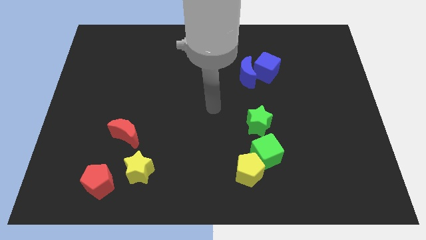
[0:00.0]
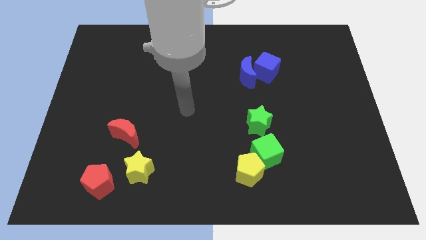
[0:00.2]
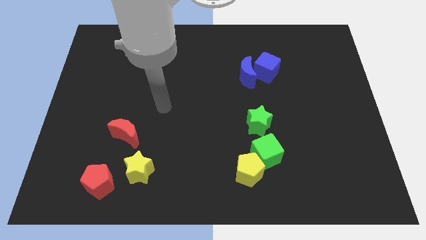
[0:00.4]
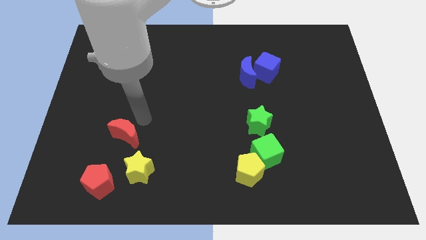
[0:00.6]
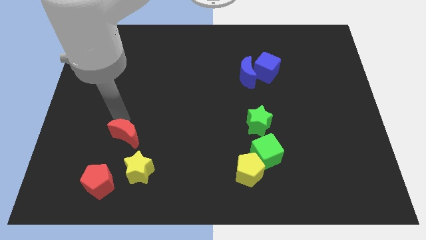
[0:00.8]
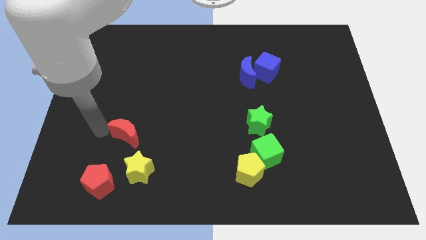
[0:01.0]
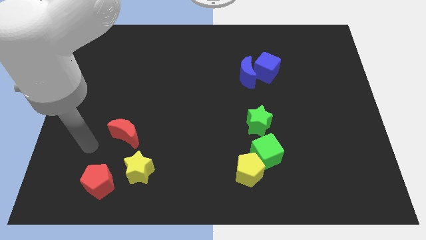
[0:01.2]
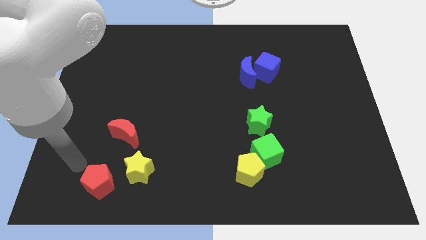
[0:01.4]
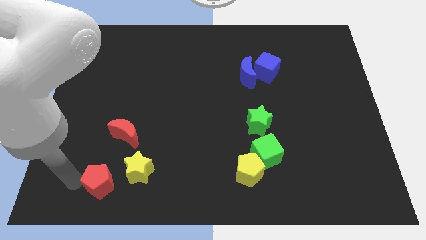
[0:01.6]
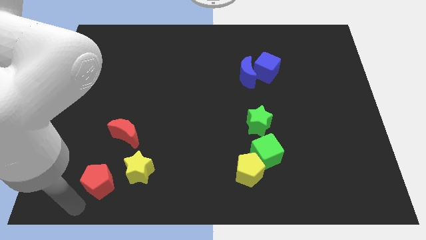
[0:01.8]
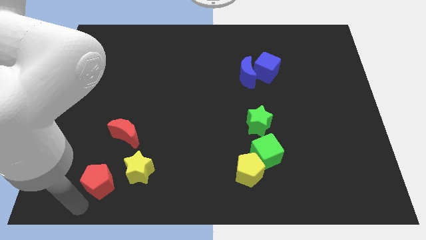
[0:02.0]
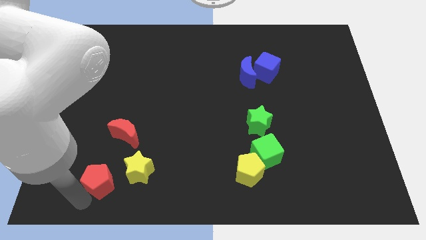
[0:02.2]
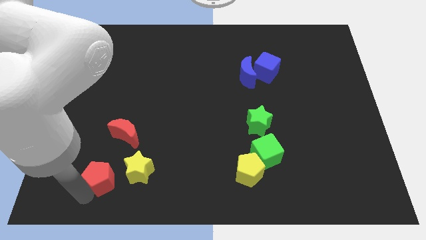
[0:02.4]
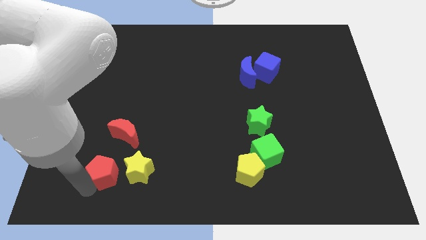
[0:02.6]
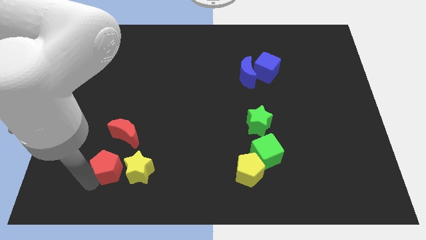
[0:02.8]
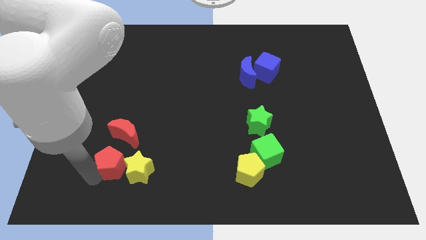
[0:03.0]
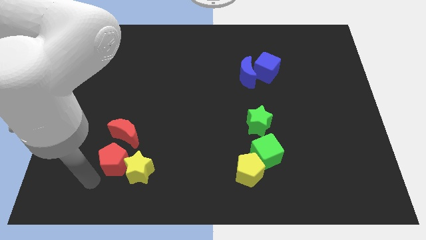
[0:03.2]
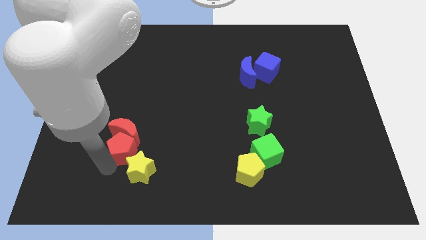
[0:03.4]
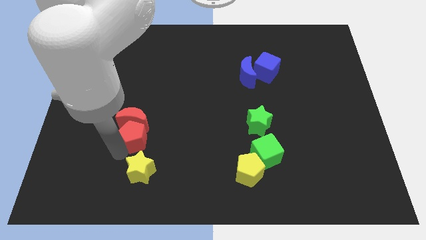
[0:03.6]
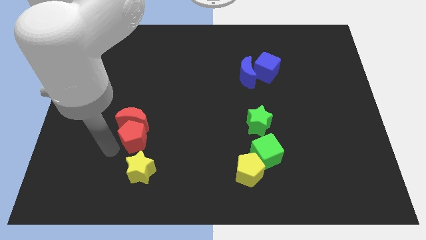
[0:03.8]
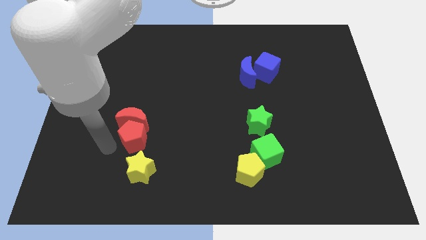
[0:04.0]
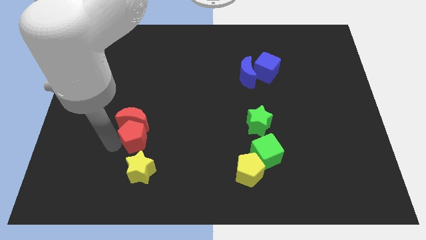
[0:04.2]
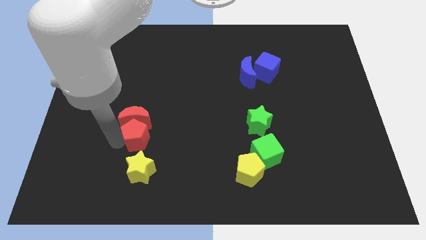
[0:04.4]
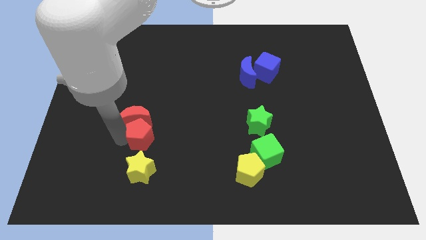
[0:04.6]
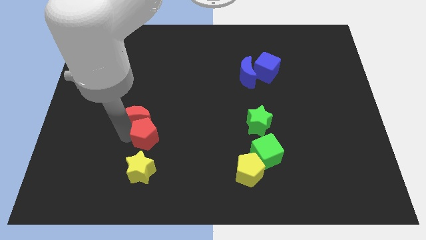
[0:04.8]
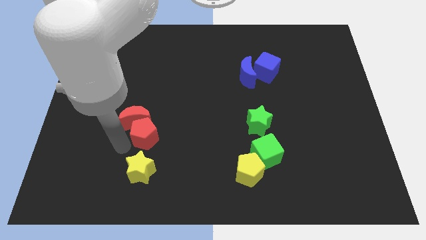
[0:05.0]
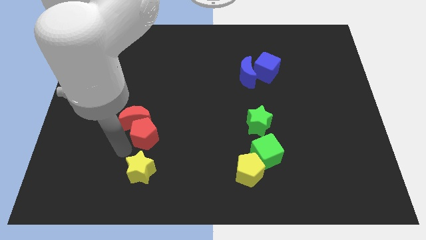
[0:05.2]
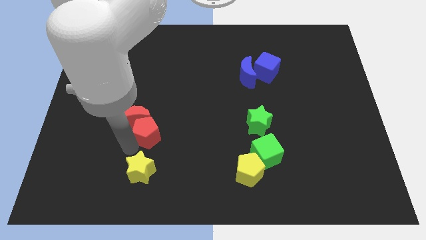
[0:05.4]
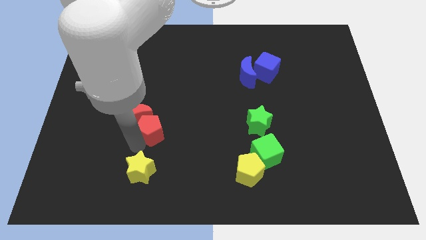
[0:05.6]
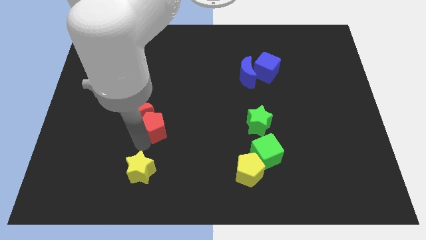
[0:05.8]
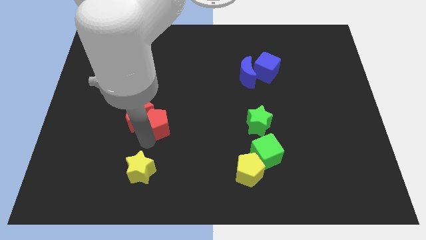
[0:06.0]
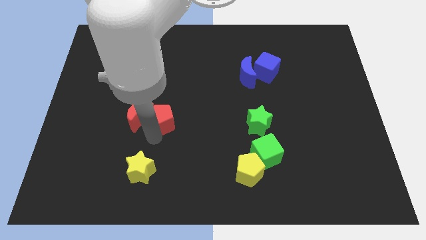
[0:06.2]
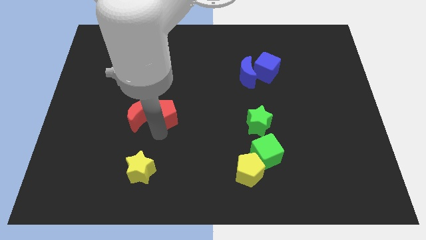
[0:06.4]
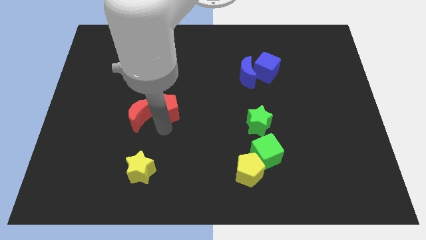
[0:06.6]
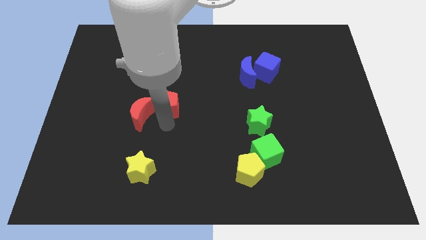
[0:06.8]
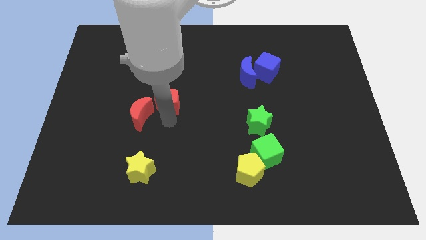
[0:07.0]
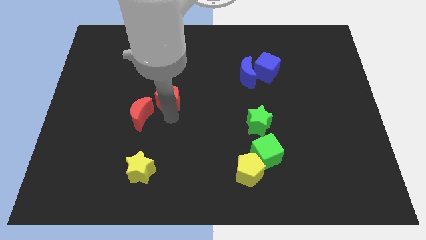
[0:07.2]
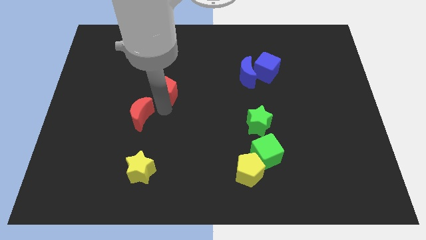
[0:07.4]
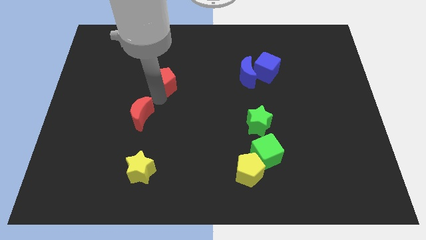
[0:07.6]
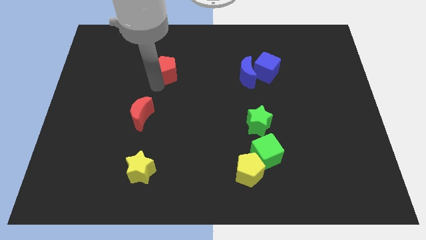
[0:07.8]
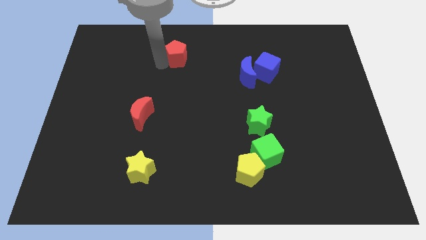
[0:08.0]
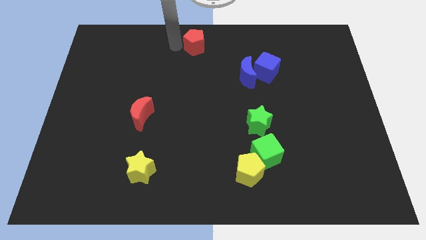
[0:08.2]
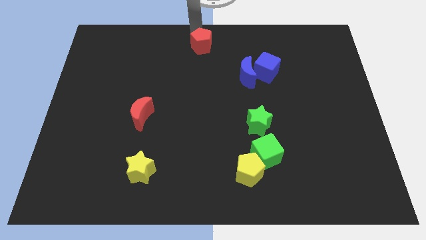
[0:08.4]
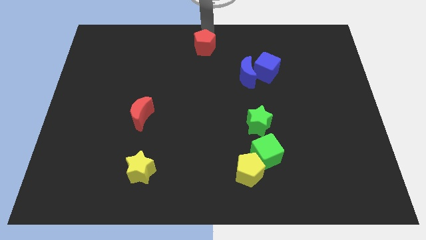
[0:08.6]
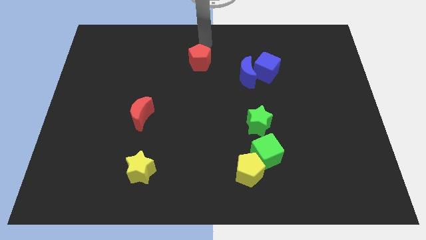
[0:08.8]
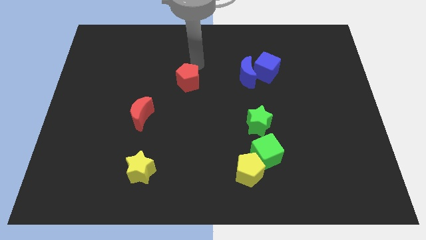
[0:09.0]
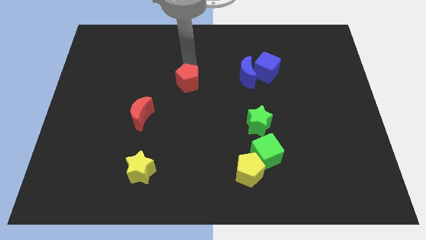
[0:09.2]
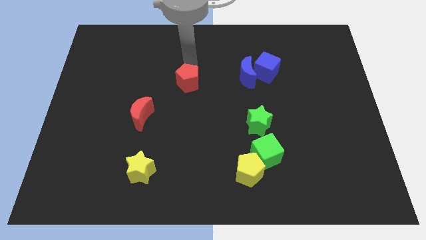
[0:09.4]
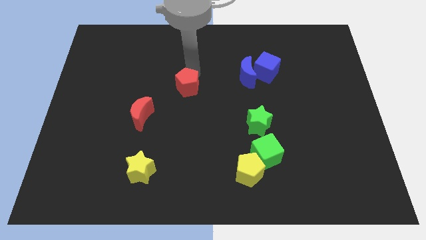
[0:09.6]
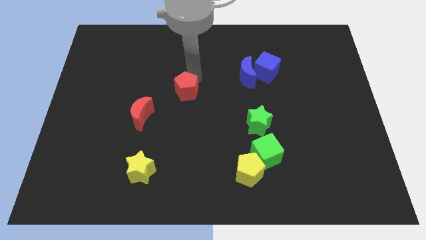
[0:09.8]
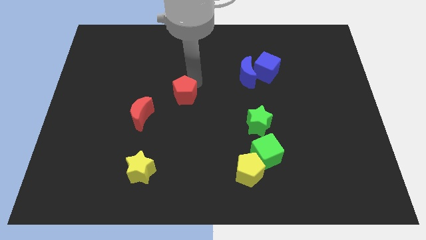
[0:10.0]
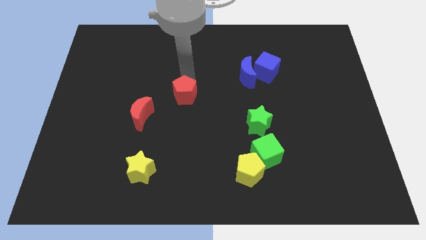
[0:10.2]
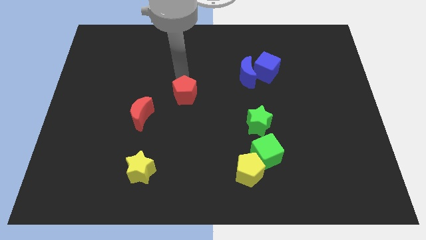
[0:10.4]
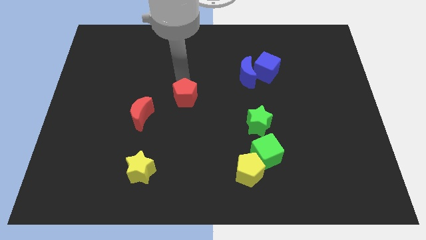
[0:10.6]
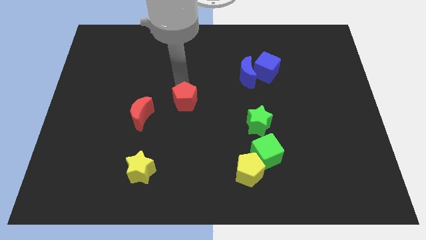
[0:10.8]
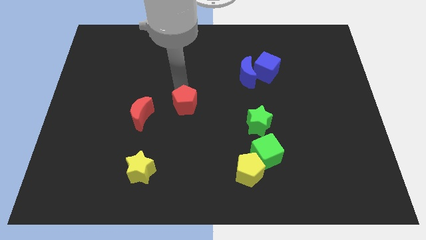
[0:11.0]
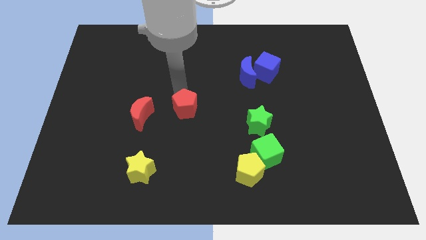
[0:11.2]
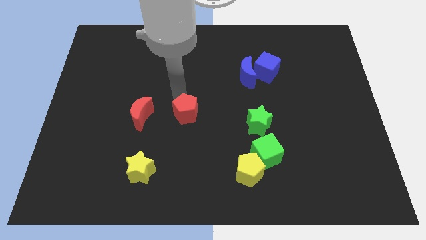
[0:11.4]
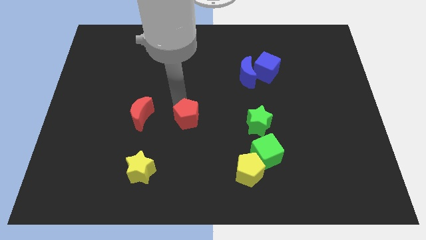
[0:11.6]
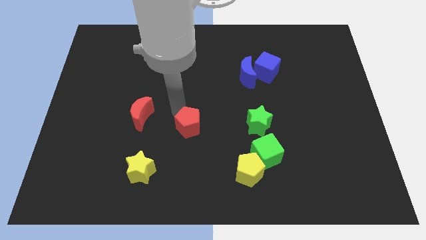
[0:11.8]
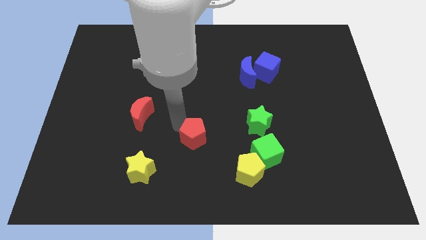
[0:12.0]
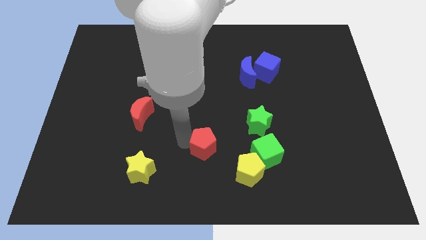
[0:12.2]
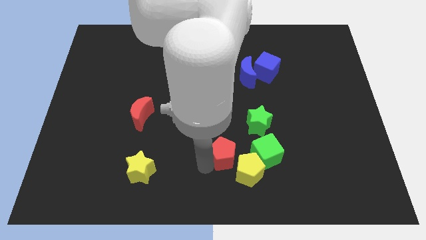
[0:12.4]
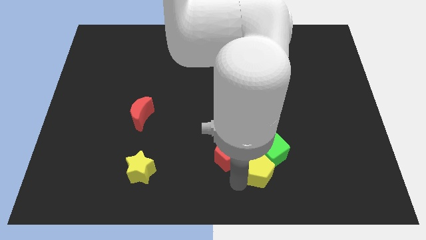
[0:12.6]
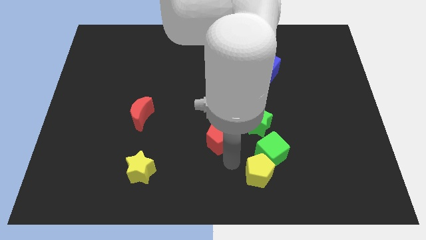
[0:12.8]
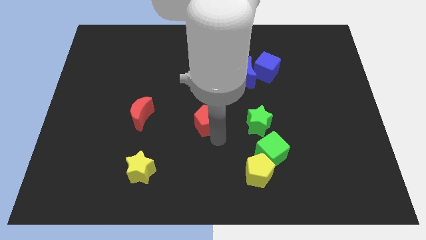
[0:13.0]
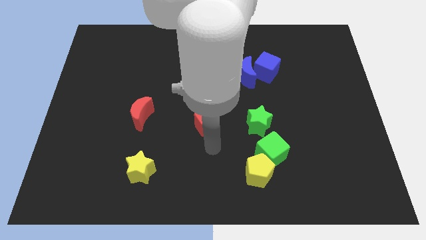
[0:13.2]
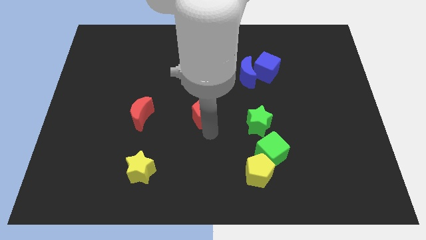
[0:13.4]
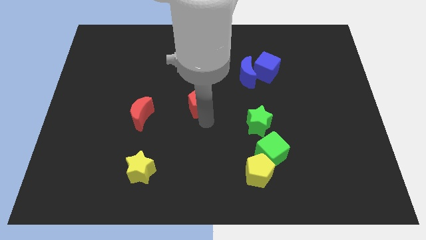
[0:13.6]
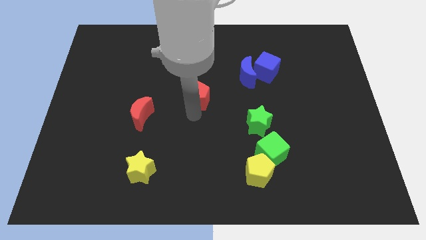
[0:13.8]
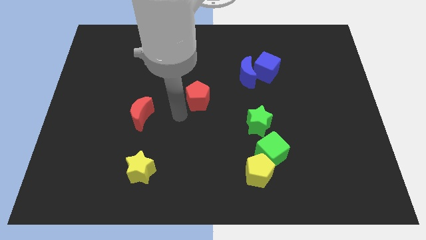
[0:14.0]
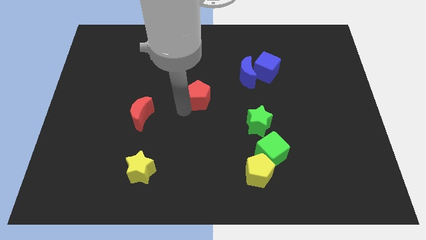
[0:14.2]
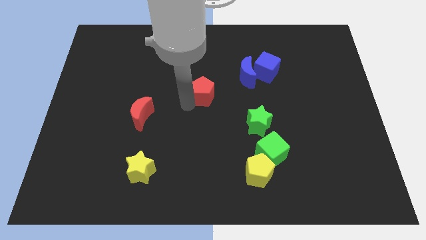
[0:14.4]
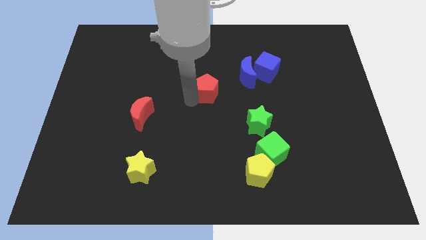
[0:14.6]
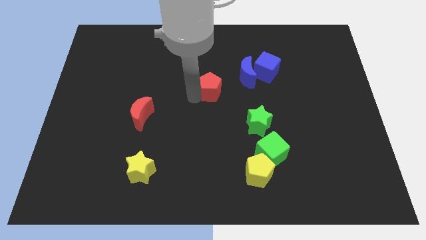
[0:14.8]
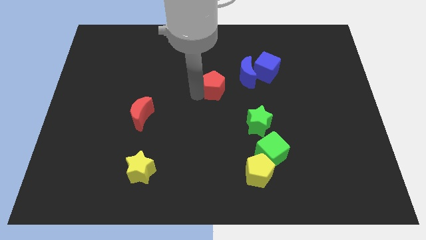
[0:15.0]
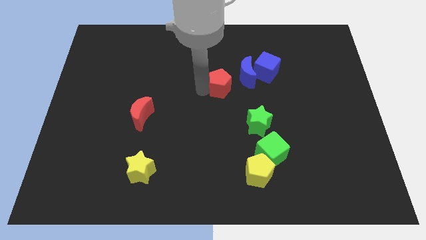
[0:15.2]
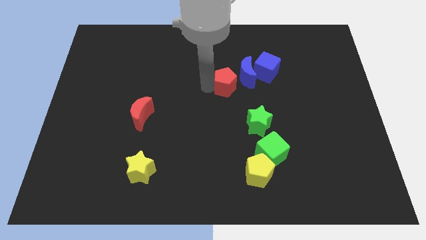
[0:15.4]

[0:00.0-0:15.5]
put the red pentagon next to the blue moon
